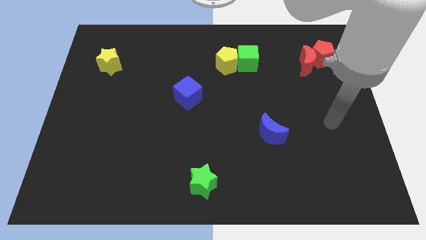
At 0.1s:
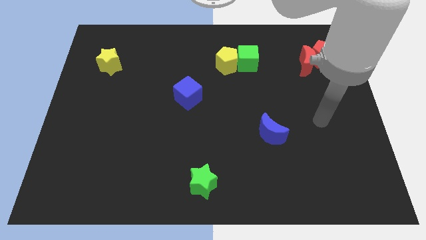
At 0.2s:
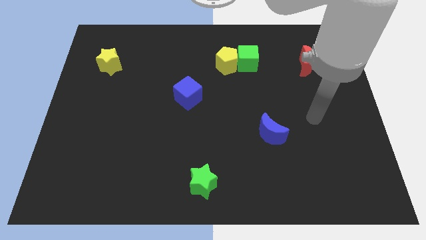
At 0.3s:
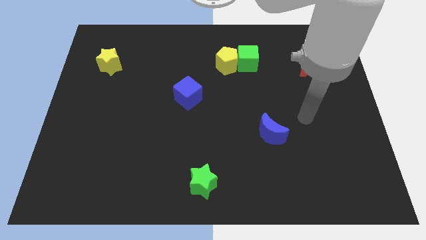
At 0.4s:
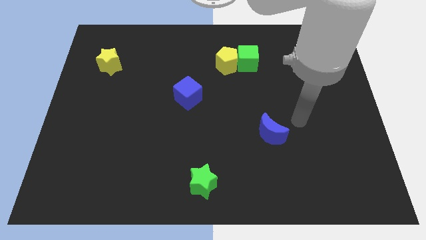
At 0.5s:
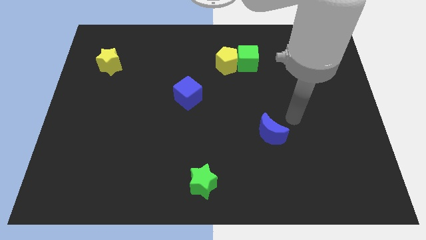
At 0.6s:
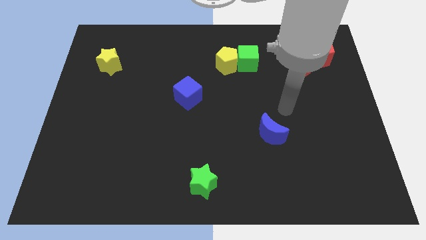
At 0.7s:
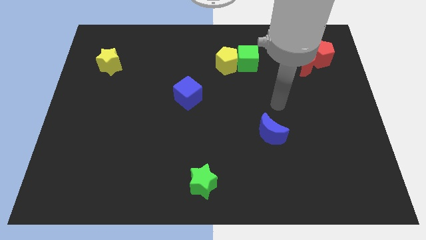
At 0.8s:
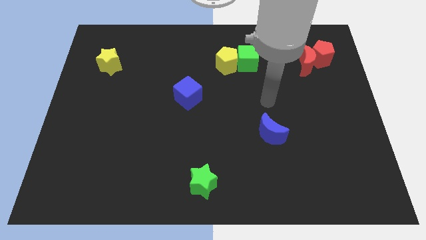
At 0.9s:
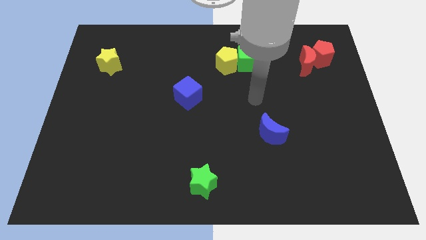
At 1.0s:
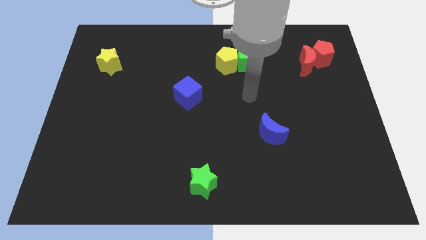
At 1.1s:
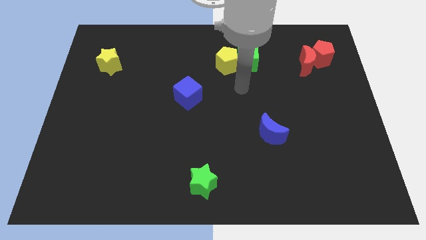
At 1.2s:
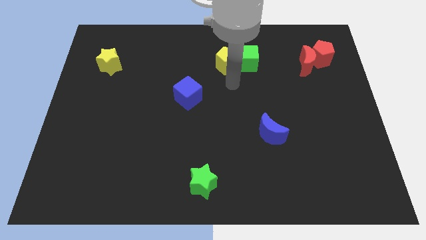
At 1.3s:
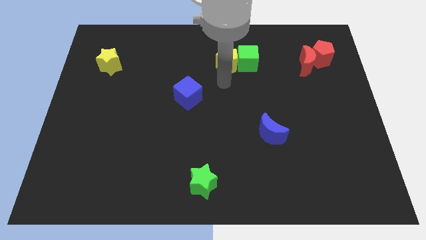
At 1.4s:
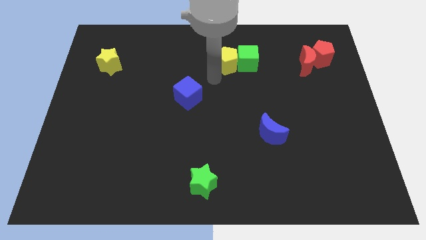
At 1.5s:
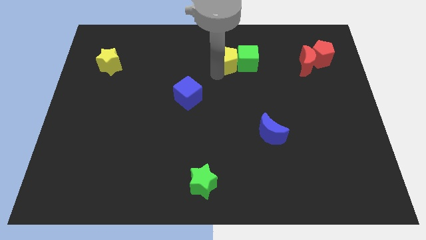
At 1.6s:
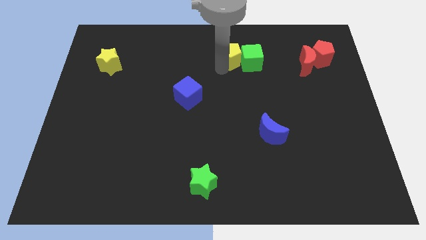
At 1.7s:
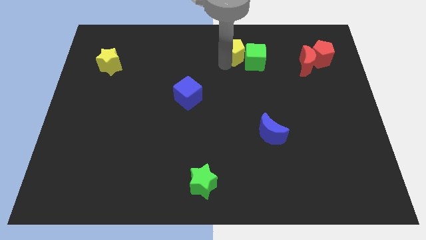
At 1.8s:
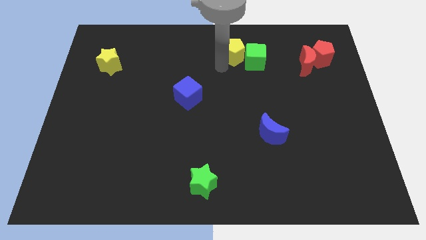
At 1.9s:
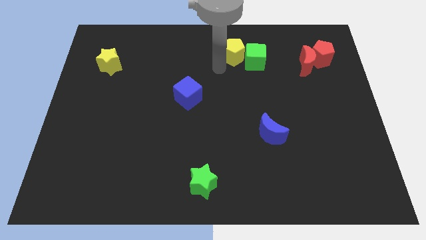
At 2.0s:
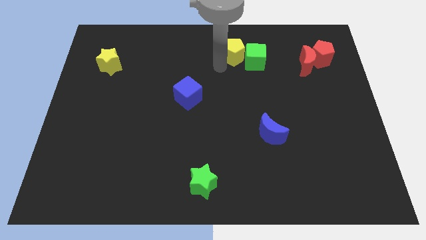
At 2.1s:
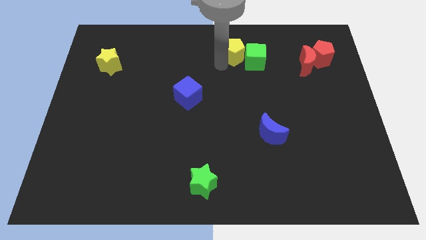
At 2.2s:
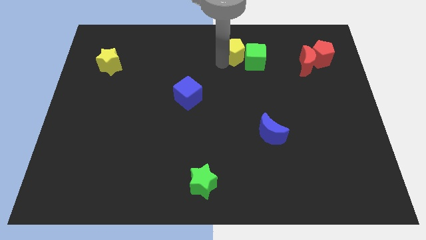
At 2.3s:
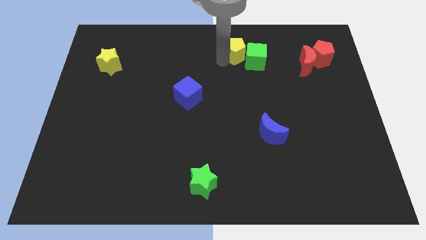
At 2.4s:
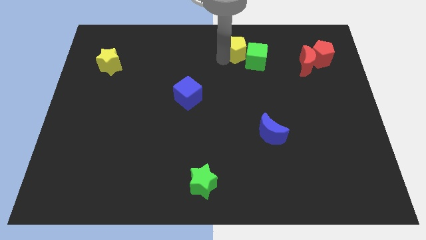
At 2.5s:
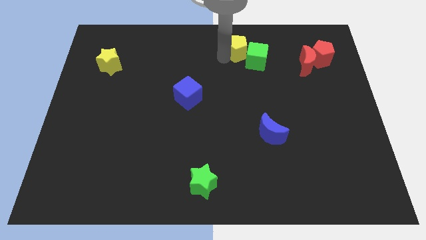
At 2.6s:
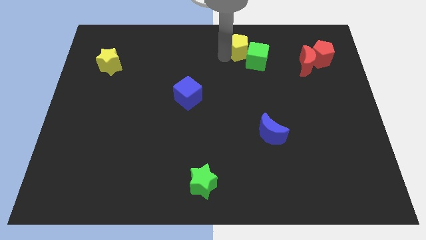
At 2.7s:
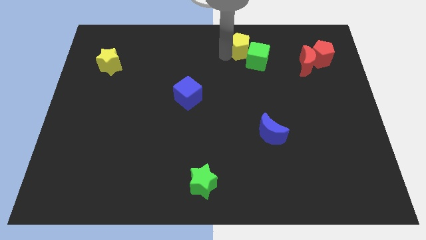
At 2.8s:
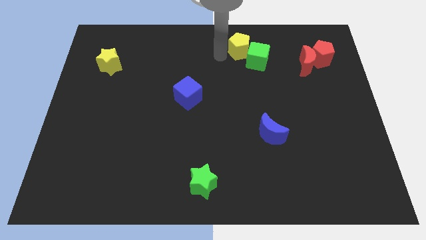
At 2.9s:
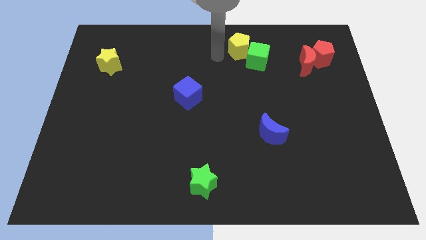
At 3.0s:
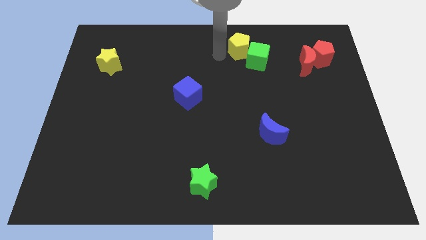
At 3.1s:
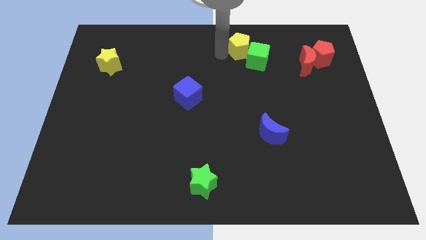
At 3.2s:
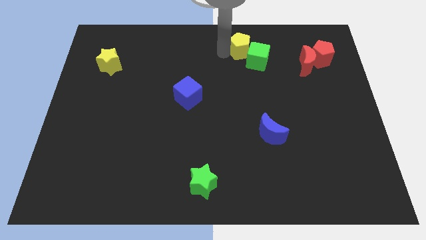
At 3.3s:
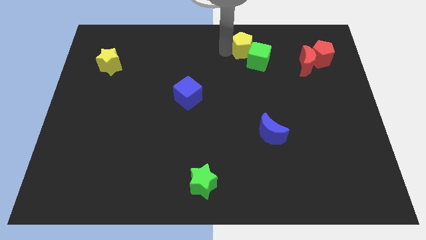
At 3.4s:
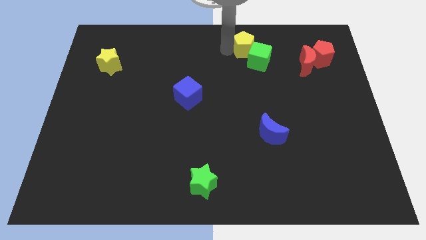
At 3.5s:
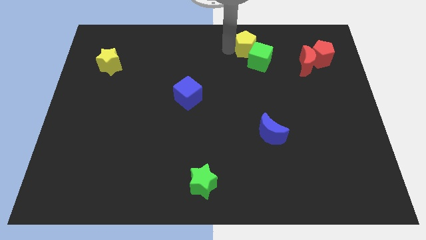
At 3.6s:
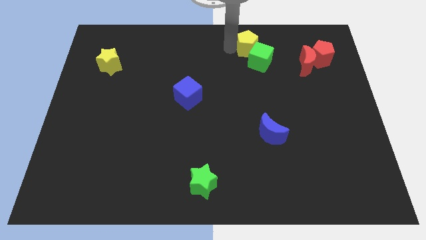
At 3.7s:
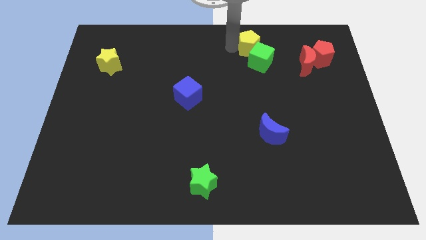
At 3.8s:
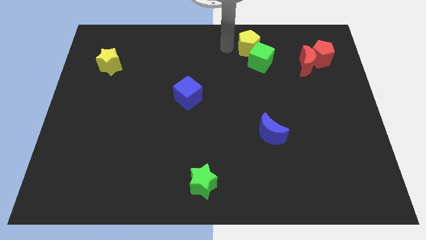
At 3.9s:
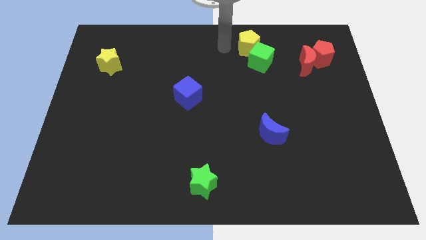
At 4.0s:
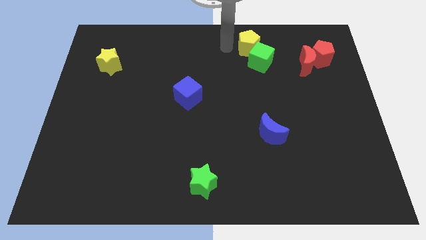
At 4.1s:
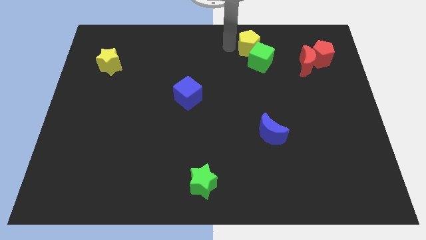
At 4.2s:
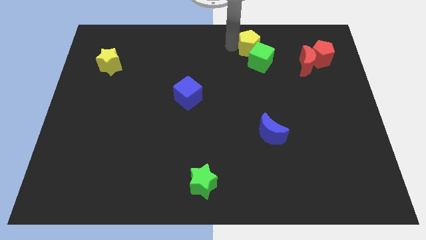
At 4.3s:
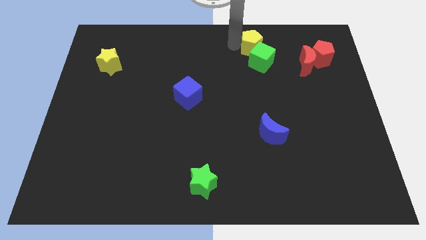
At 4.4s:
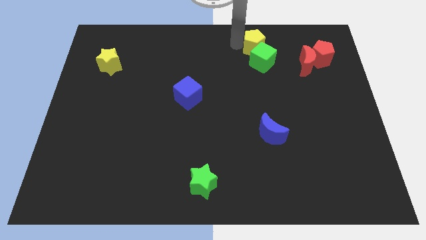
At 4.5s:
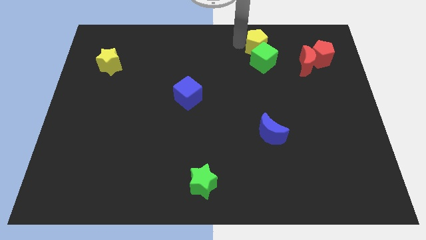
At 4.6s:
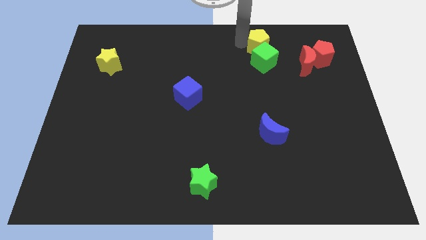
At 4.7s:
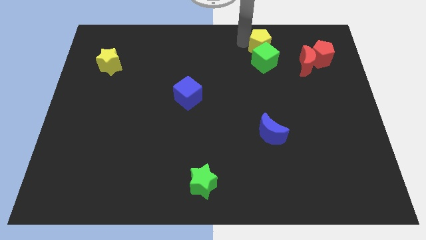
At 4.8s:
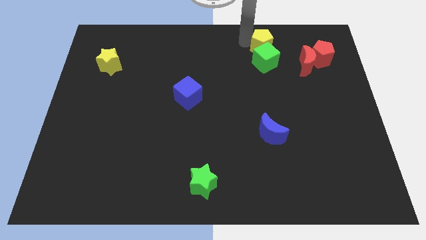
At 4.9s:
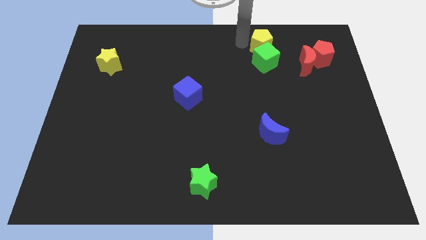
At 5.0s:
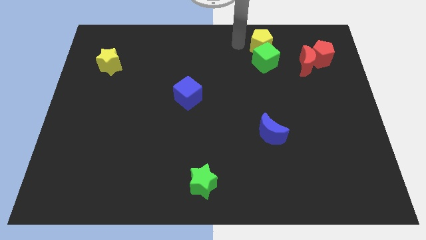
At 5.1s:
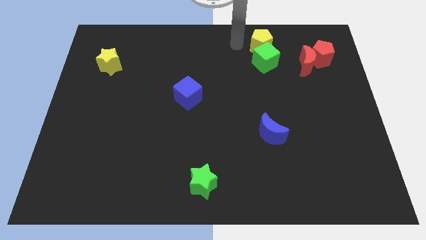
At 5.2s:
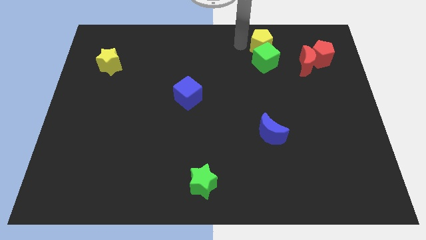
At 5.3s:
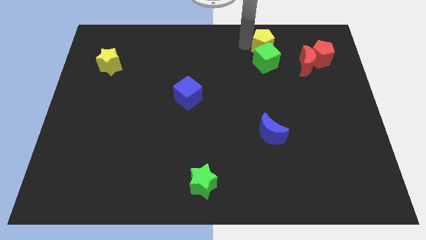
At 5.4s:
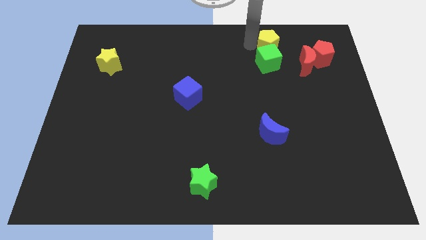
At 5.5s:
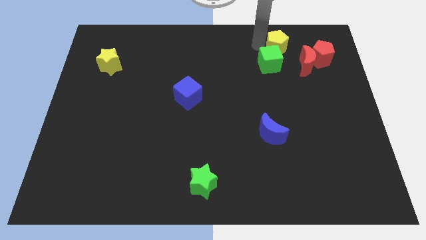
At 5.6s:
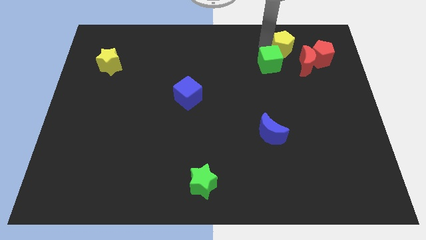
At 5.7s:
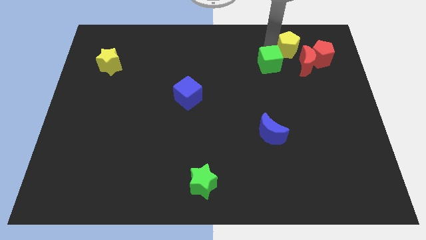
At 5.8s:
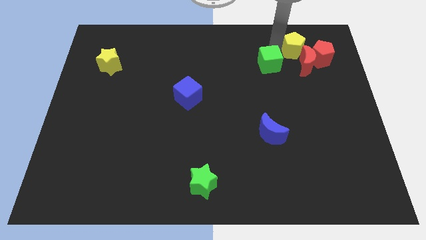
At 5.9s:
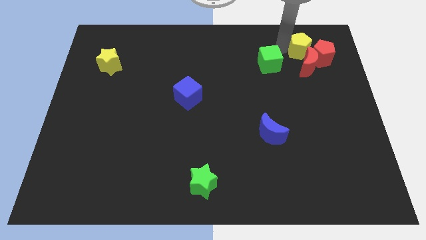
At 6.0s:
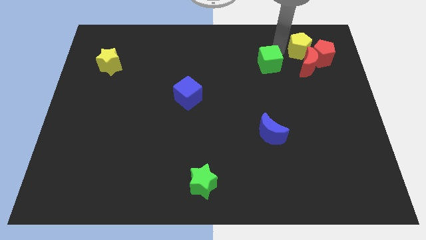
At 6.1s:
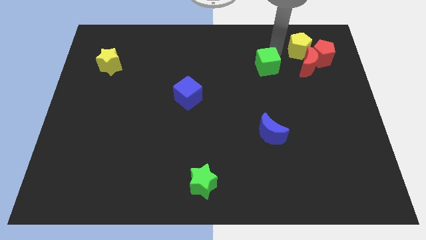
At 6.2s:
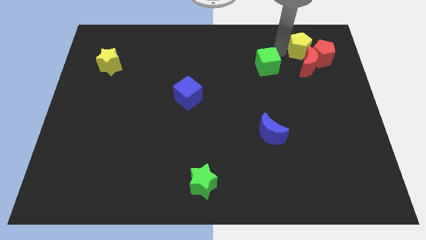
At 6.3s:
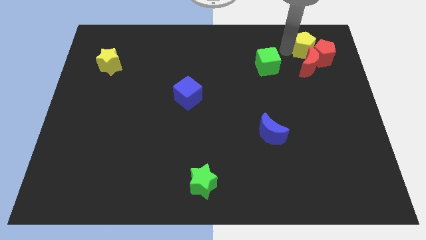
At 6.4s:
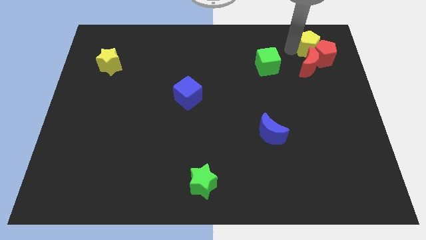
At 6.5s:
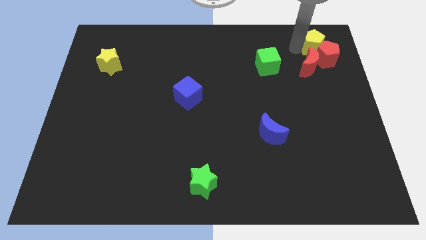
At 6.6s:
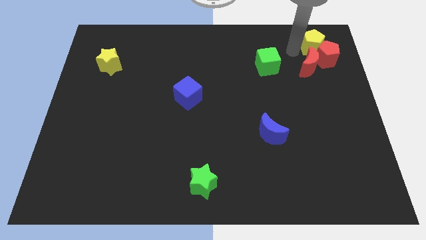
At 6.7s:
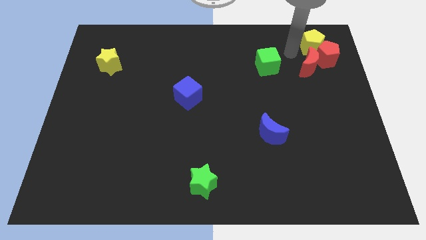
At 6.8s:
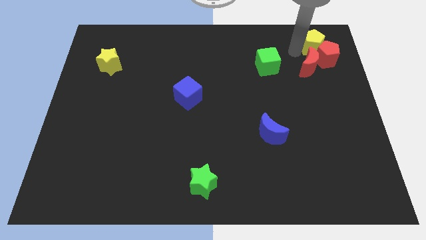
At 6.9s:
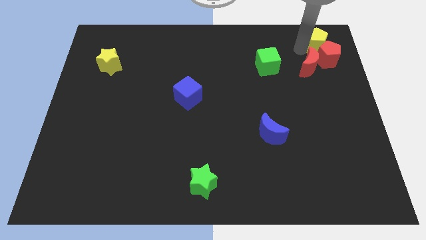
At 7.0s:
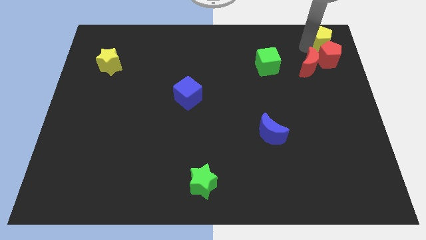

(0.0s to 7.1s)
slide the yellow pentagon to the top right corner
